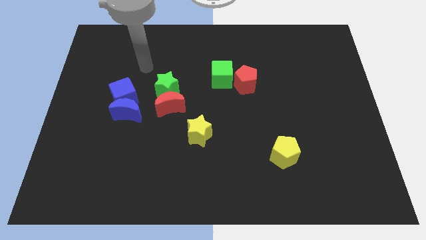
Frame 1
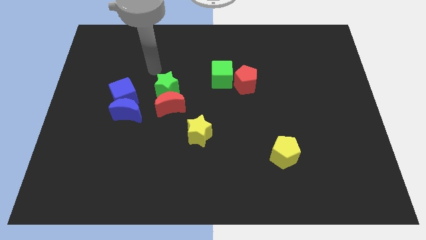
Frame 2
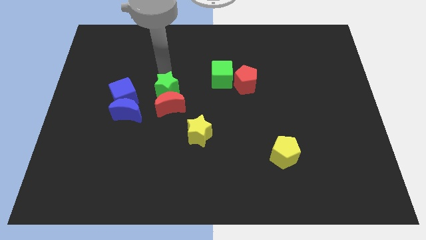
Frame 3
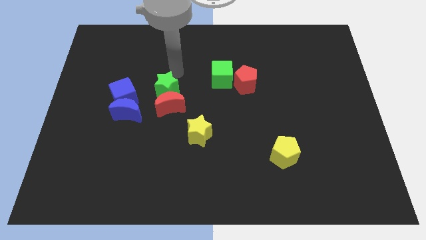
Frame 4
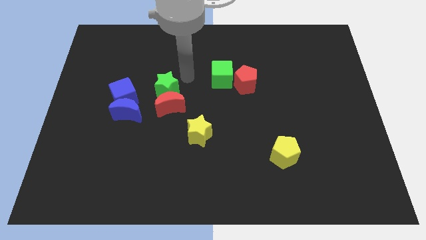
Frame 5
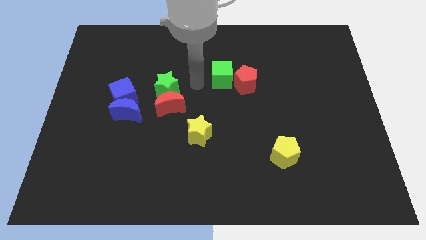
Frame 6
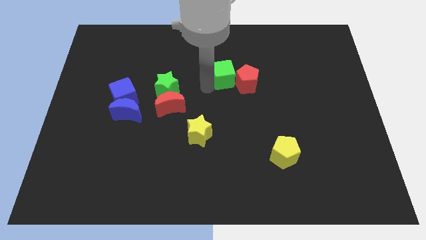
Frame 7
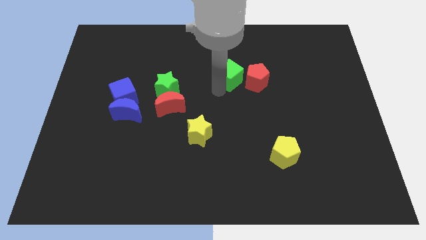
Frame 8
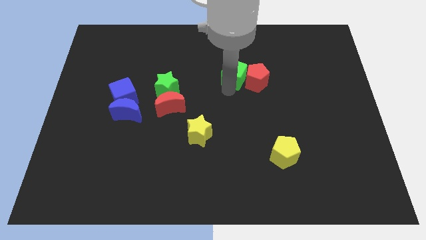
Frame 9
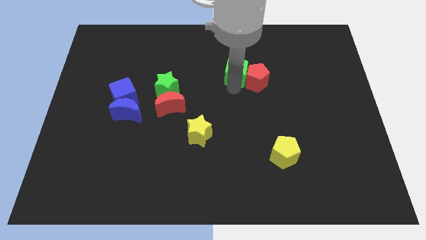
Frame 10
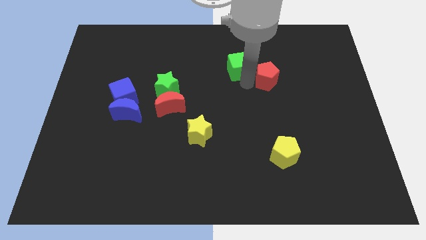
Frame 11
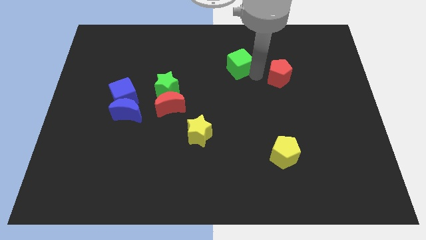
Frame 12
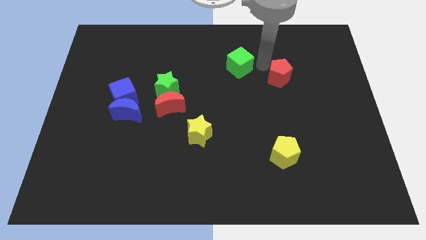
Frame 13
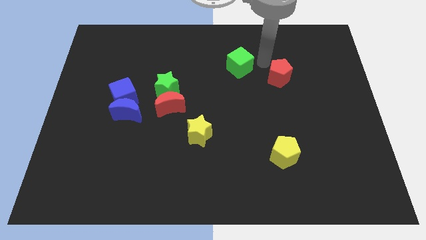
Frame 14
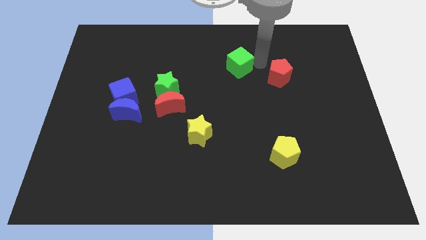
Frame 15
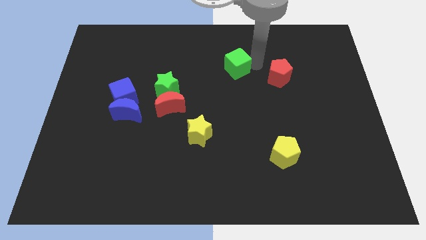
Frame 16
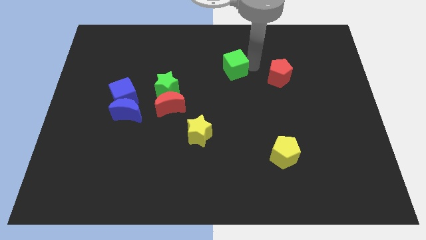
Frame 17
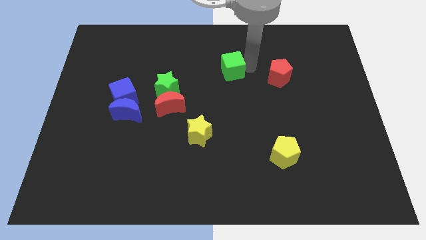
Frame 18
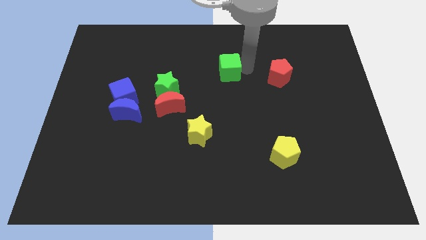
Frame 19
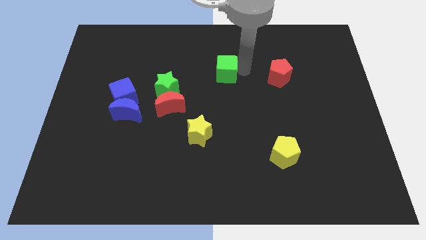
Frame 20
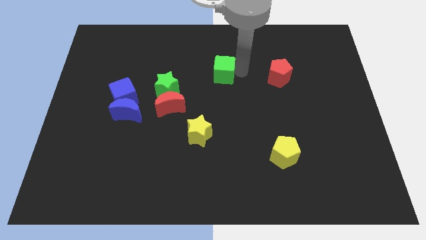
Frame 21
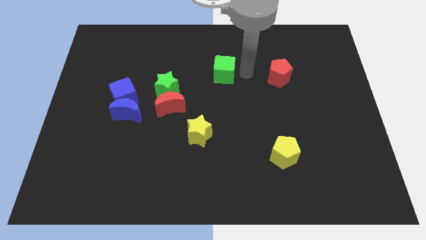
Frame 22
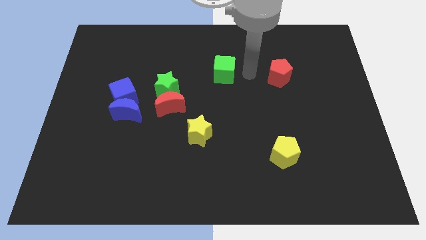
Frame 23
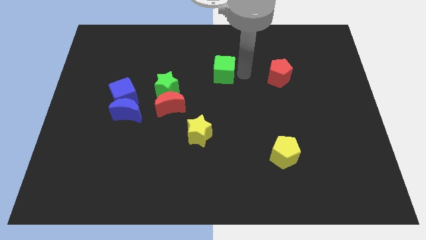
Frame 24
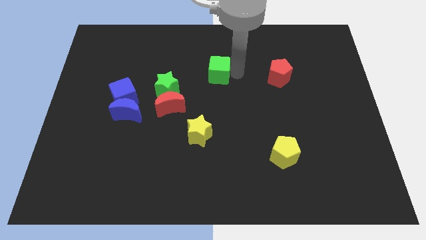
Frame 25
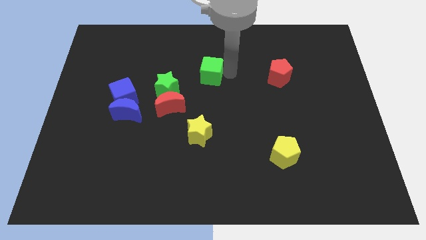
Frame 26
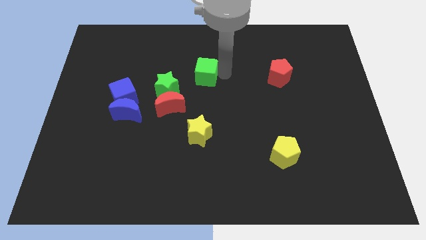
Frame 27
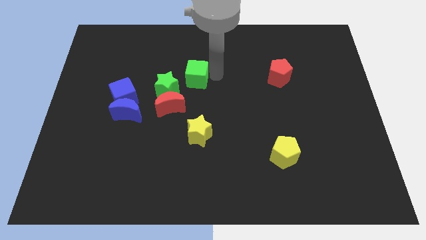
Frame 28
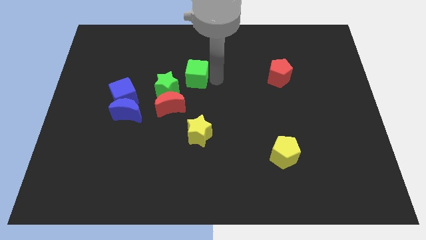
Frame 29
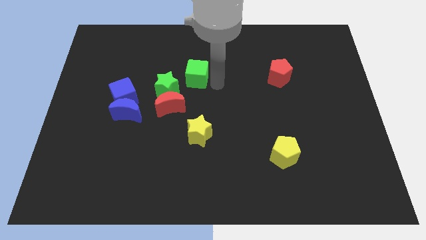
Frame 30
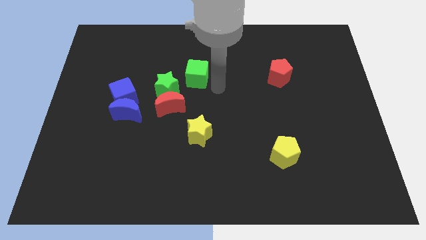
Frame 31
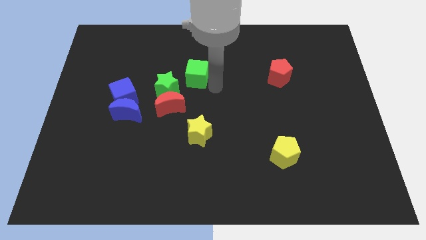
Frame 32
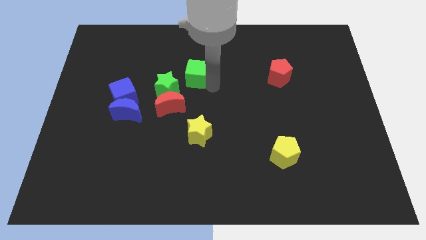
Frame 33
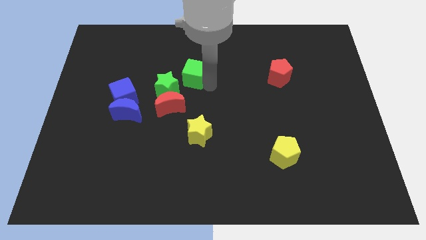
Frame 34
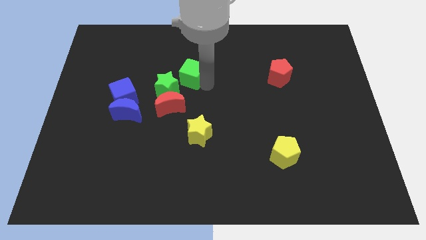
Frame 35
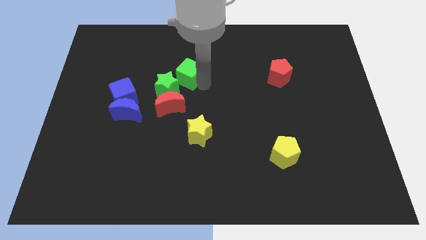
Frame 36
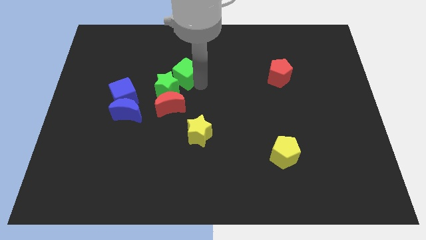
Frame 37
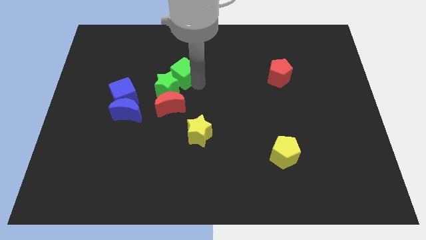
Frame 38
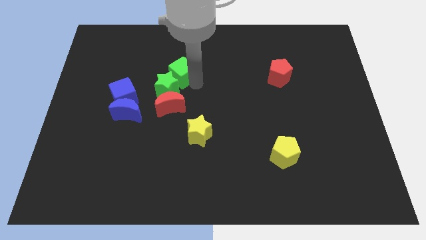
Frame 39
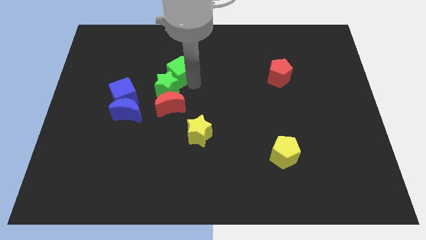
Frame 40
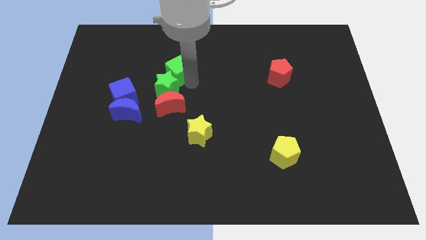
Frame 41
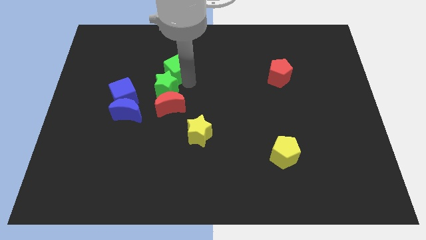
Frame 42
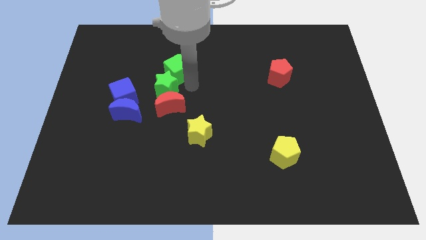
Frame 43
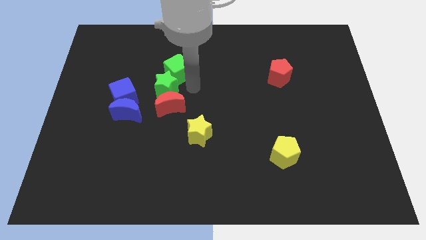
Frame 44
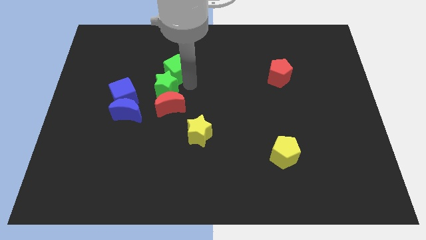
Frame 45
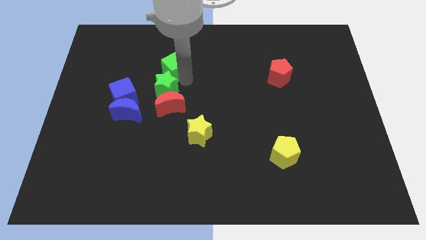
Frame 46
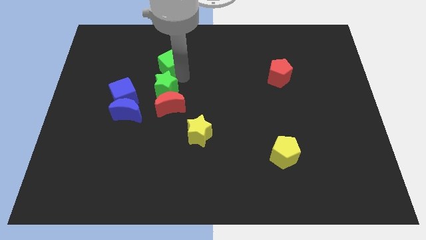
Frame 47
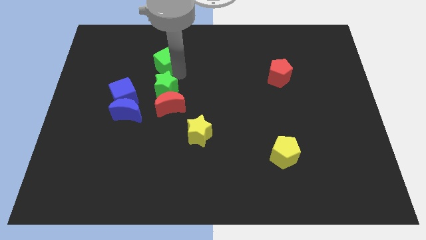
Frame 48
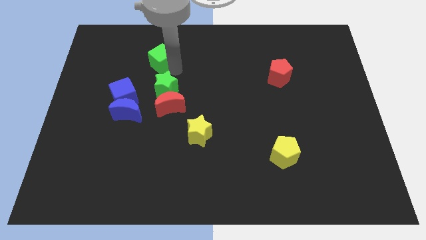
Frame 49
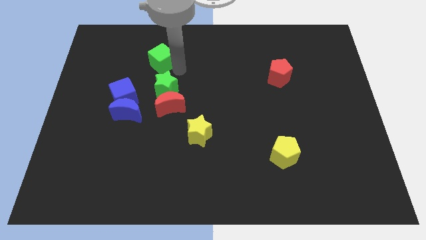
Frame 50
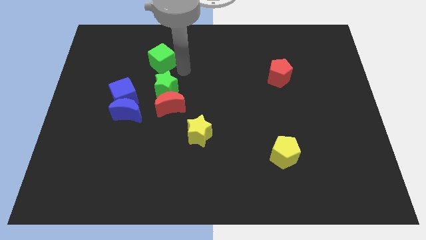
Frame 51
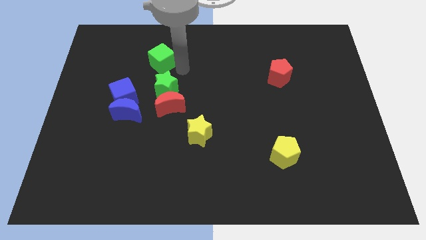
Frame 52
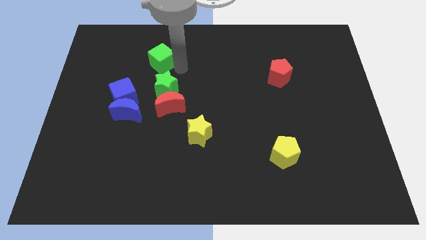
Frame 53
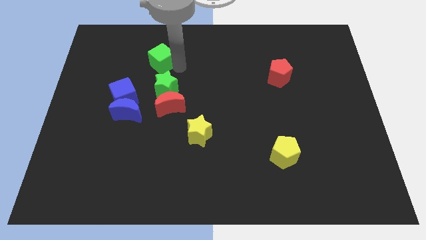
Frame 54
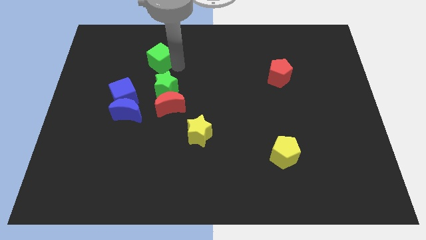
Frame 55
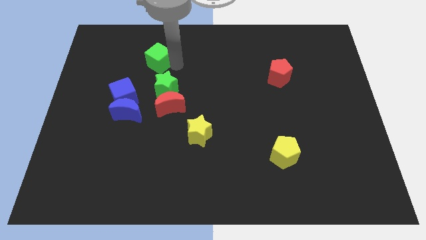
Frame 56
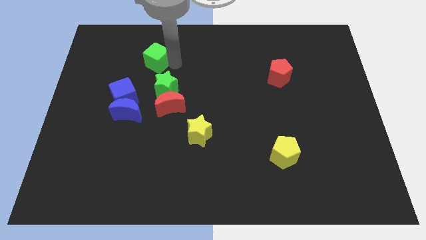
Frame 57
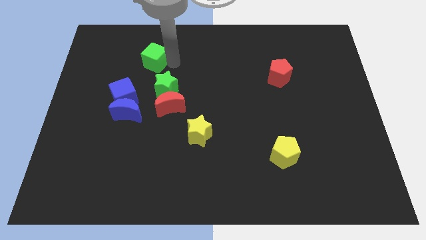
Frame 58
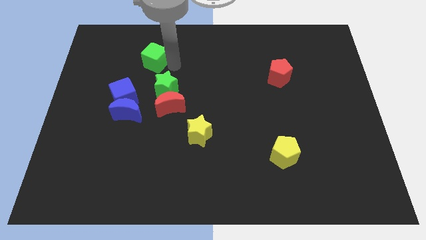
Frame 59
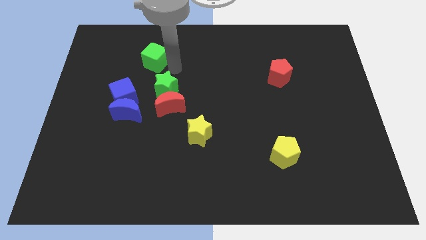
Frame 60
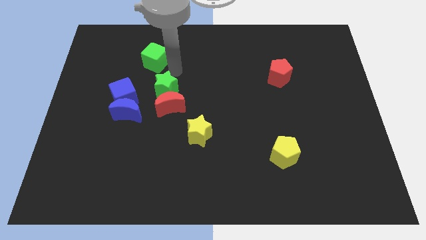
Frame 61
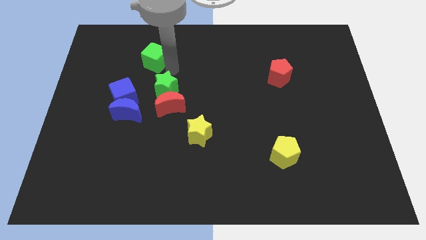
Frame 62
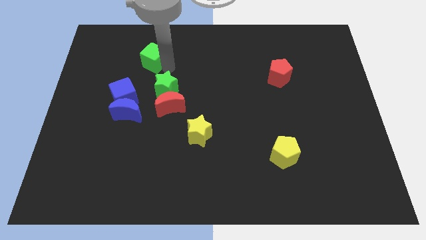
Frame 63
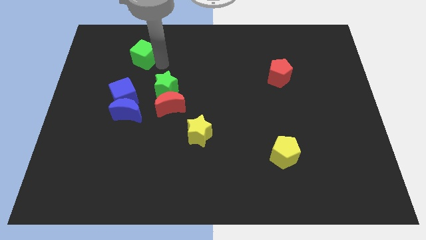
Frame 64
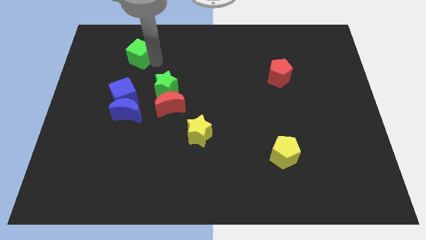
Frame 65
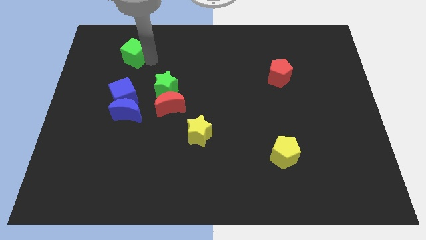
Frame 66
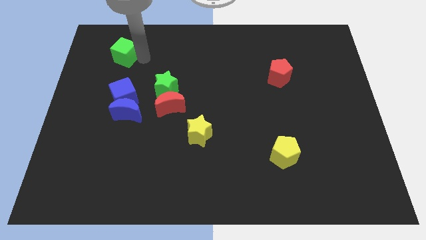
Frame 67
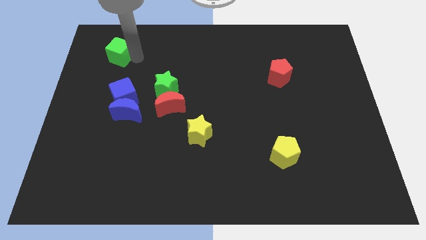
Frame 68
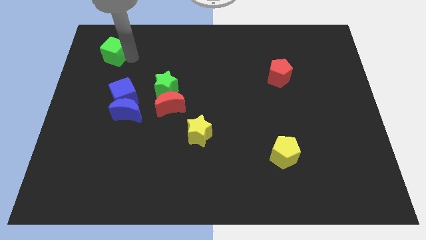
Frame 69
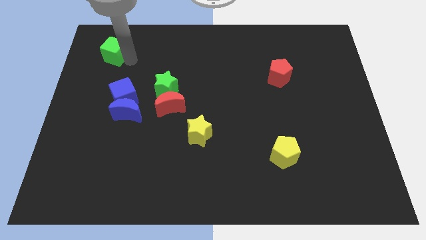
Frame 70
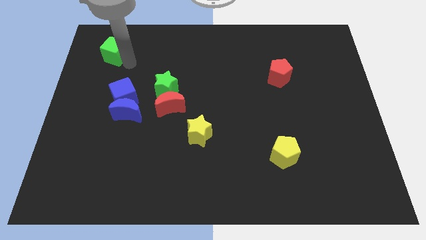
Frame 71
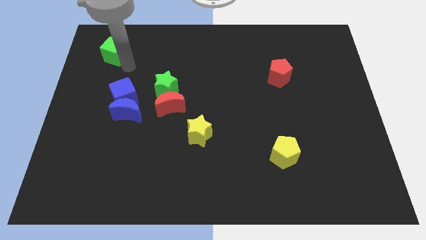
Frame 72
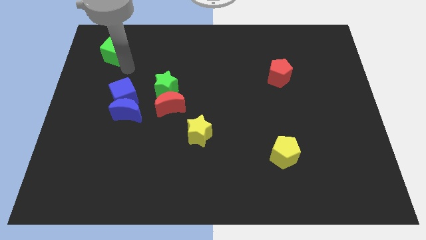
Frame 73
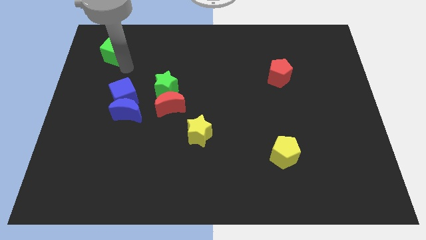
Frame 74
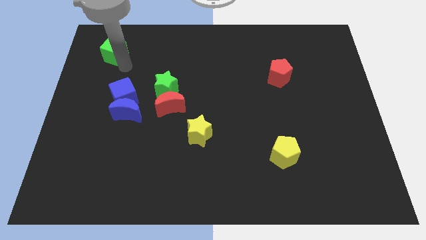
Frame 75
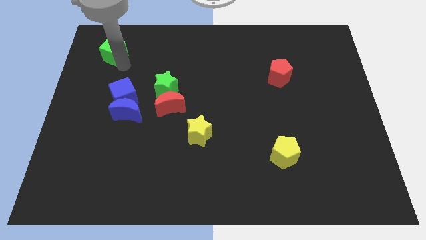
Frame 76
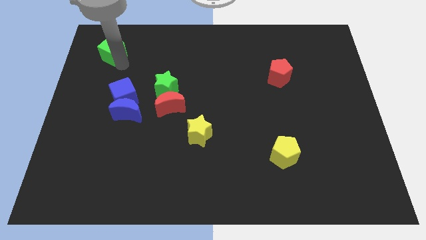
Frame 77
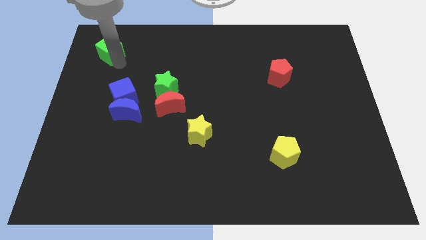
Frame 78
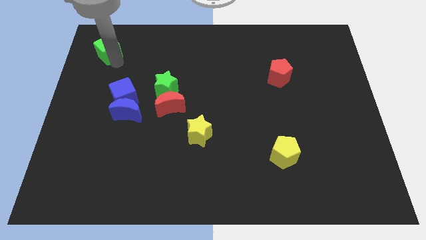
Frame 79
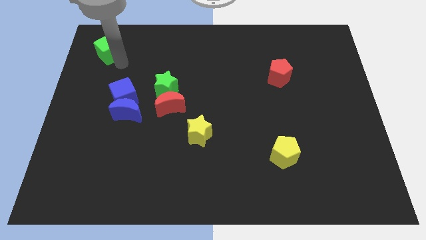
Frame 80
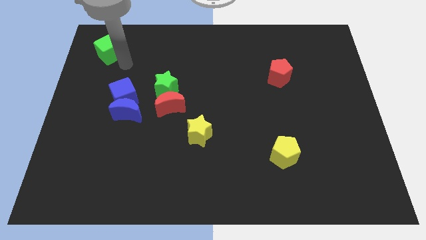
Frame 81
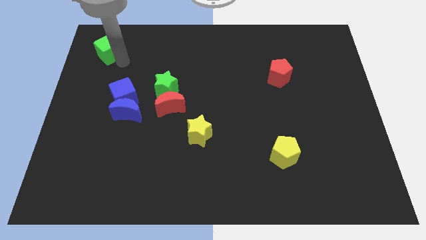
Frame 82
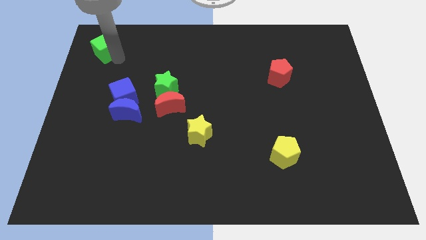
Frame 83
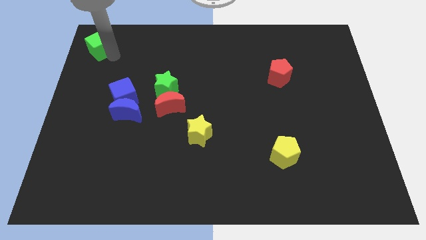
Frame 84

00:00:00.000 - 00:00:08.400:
slide the green cube to the top left of the board
